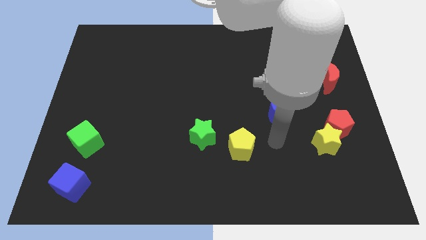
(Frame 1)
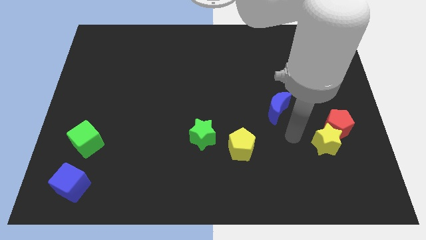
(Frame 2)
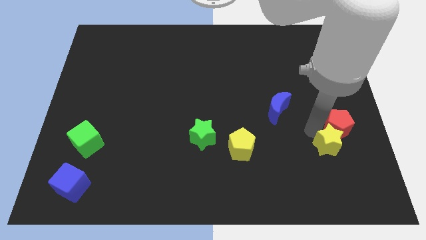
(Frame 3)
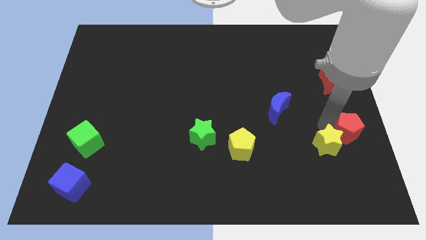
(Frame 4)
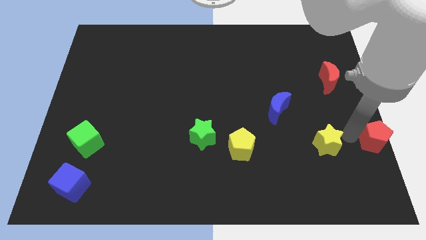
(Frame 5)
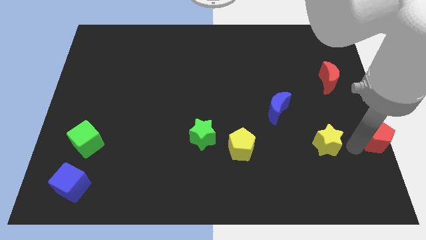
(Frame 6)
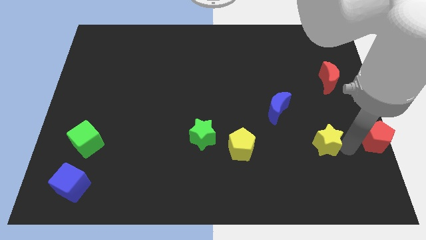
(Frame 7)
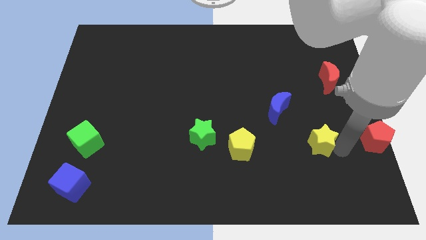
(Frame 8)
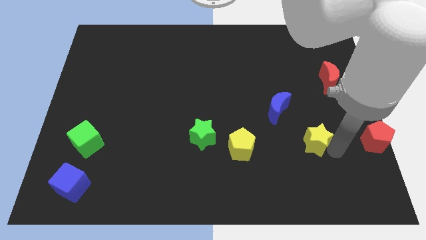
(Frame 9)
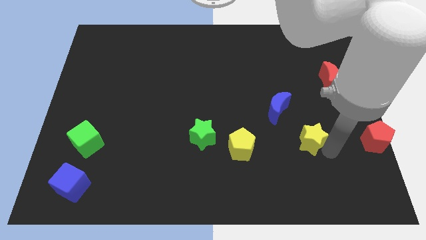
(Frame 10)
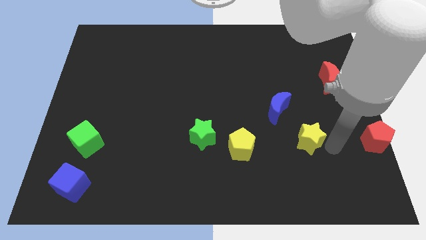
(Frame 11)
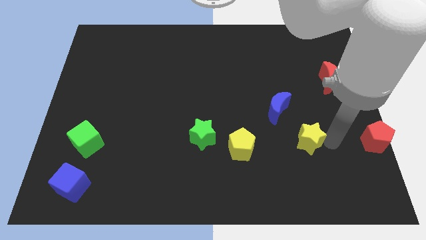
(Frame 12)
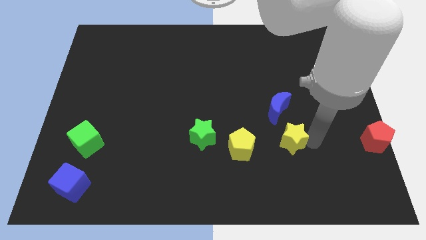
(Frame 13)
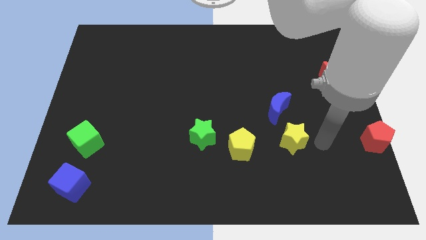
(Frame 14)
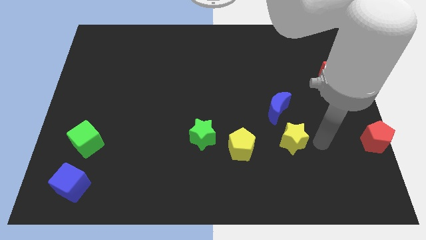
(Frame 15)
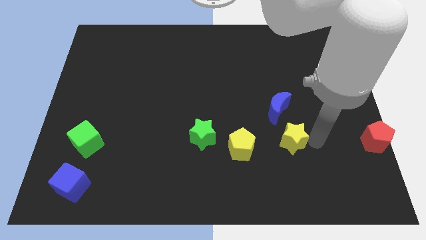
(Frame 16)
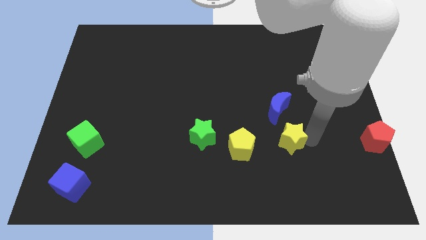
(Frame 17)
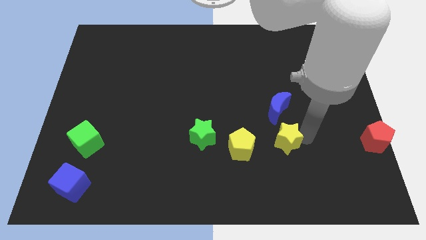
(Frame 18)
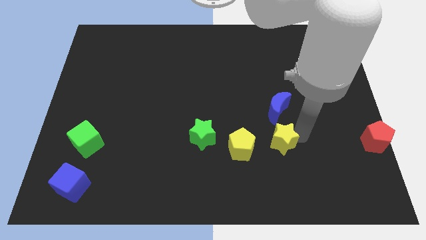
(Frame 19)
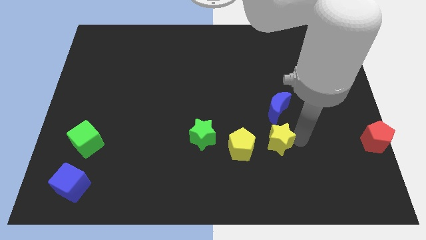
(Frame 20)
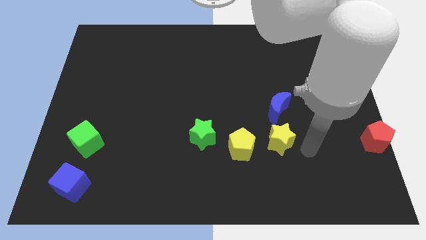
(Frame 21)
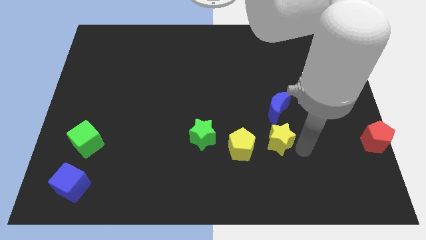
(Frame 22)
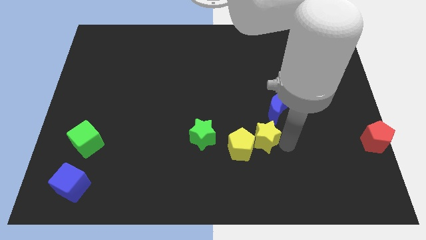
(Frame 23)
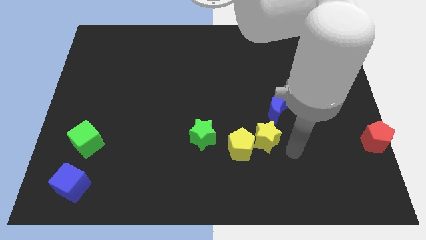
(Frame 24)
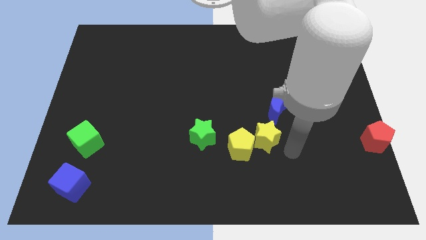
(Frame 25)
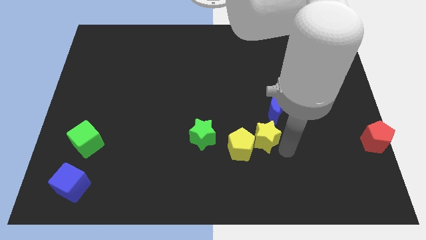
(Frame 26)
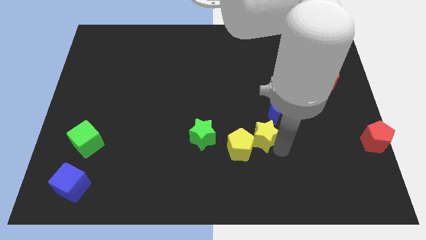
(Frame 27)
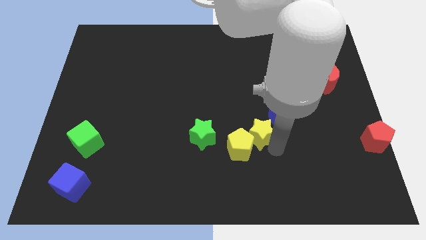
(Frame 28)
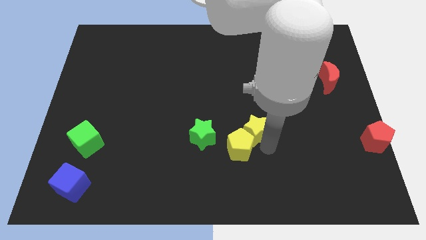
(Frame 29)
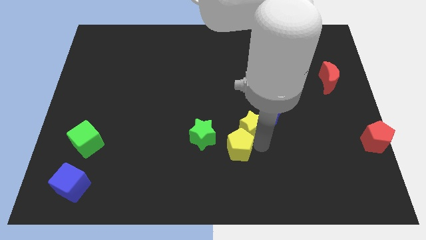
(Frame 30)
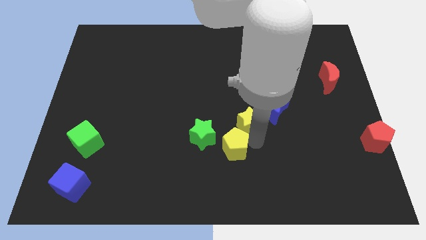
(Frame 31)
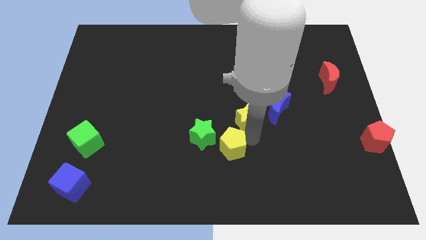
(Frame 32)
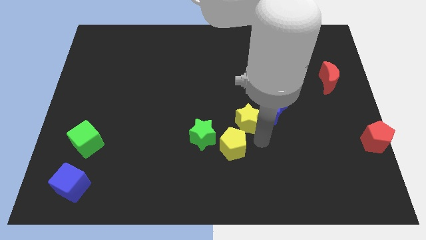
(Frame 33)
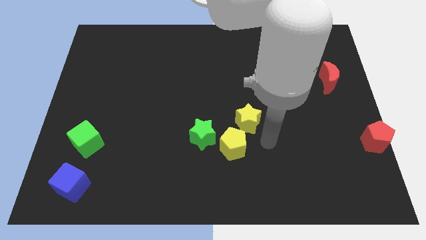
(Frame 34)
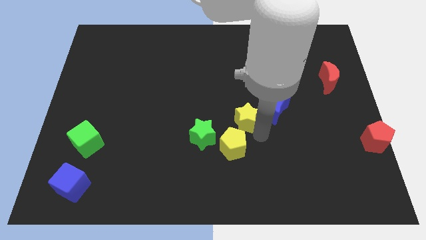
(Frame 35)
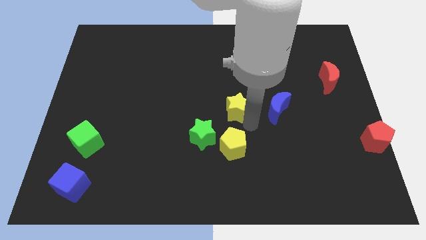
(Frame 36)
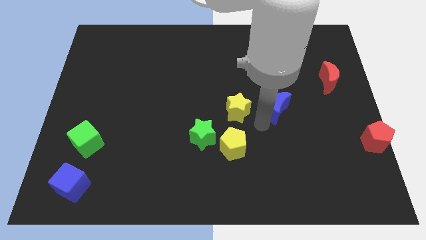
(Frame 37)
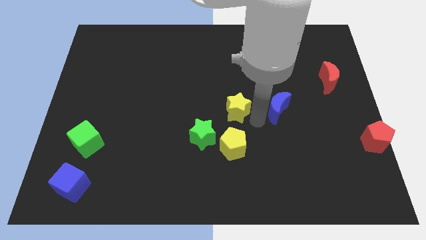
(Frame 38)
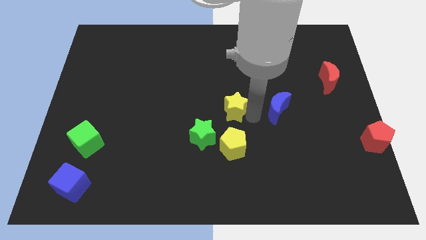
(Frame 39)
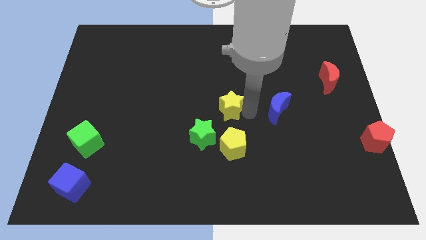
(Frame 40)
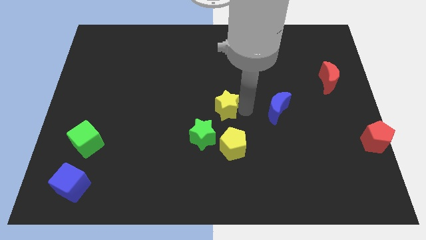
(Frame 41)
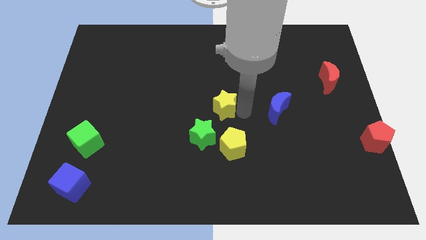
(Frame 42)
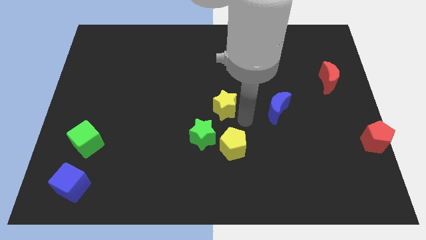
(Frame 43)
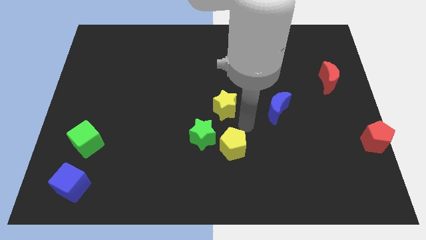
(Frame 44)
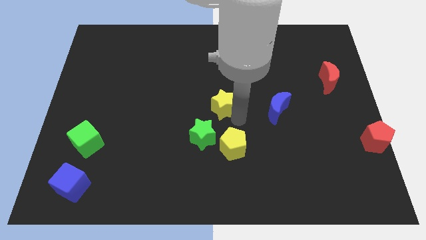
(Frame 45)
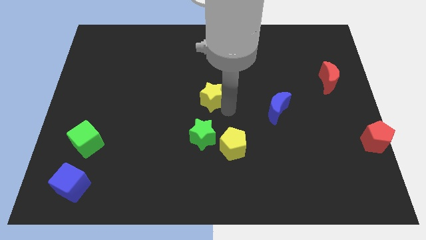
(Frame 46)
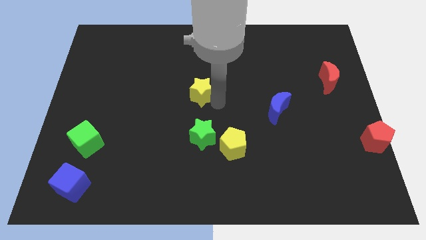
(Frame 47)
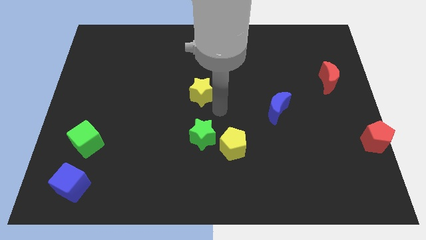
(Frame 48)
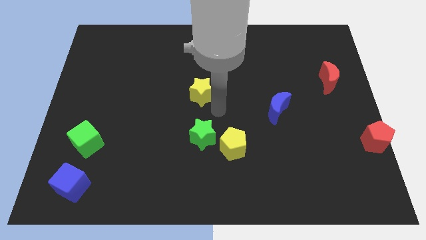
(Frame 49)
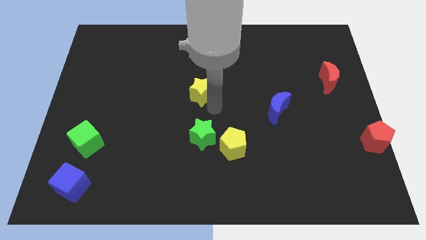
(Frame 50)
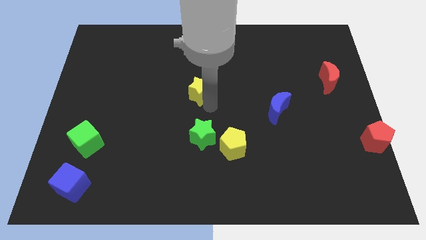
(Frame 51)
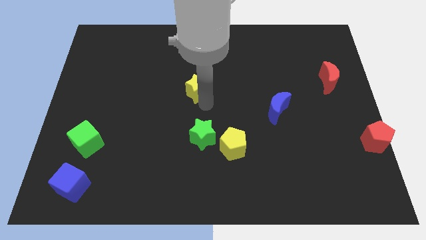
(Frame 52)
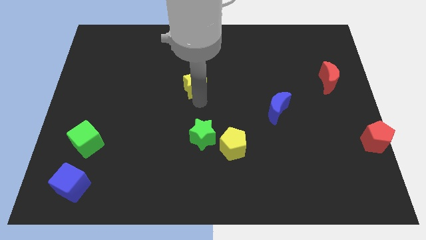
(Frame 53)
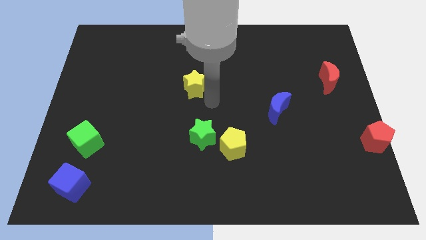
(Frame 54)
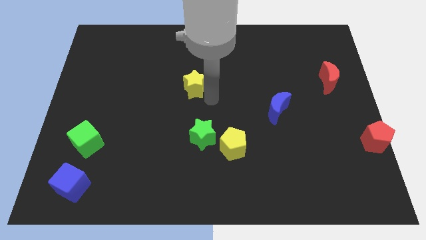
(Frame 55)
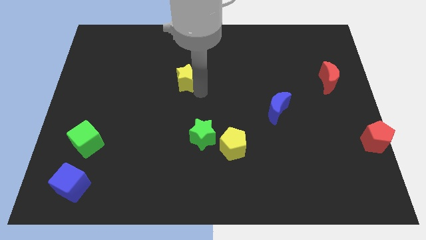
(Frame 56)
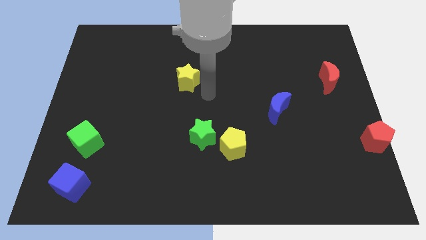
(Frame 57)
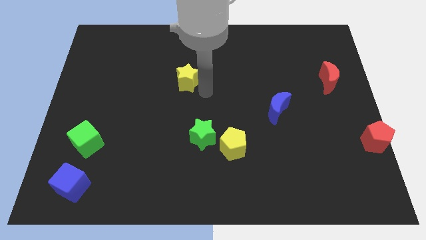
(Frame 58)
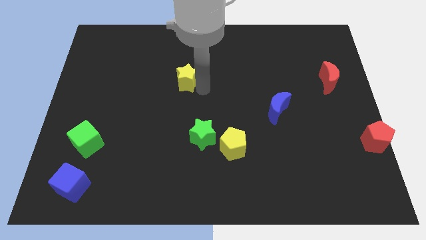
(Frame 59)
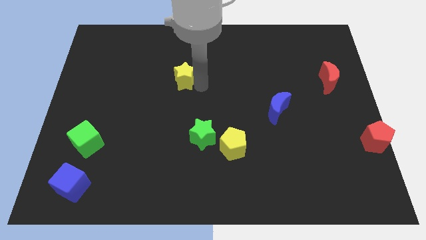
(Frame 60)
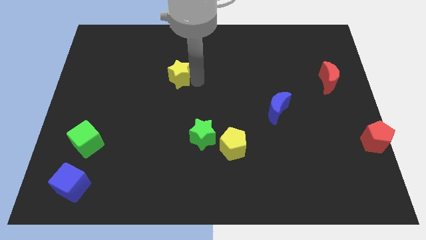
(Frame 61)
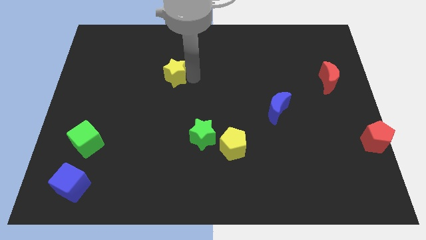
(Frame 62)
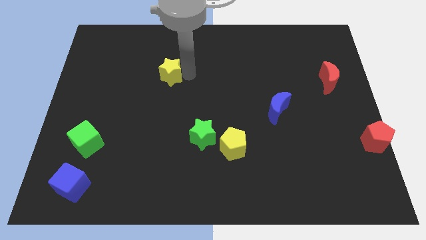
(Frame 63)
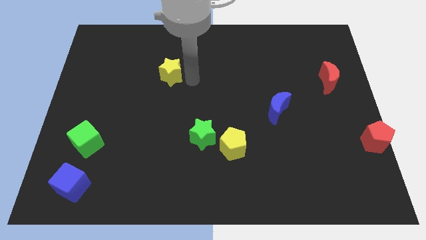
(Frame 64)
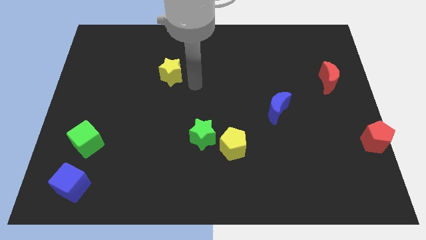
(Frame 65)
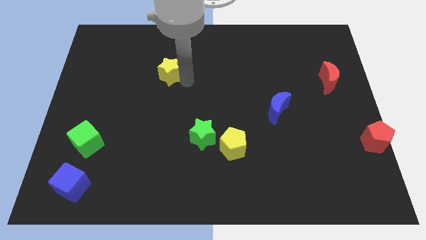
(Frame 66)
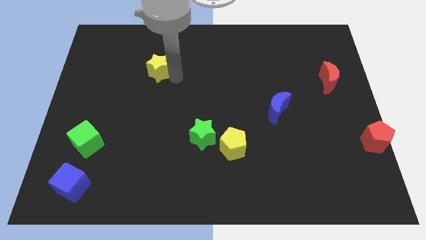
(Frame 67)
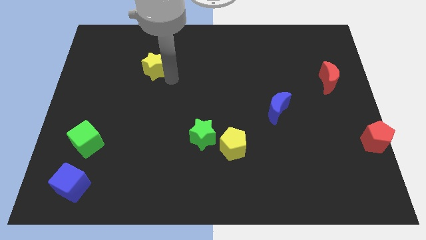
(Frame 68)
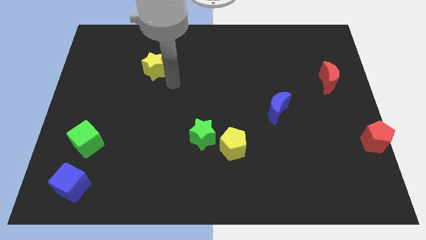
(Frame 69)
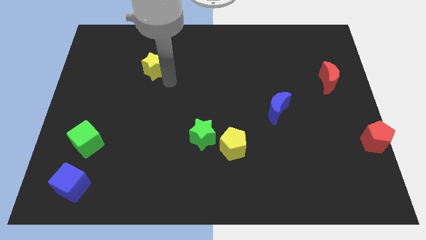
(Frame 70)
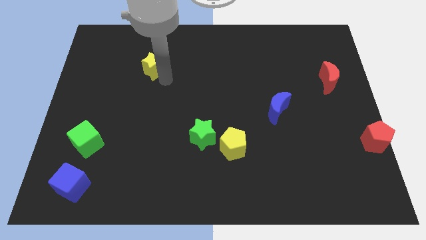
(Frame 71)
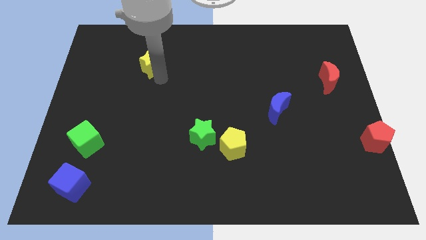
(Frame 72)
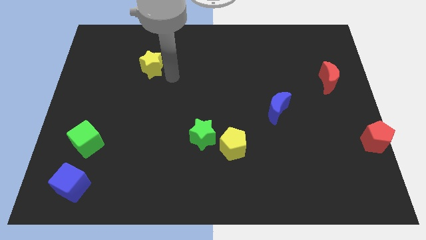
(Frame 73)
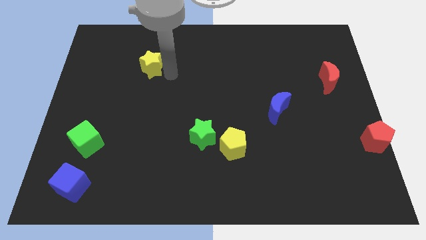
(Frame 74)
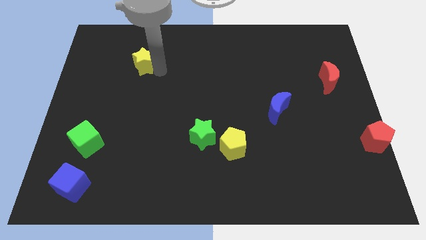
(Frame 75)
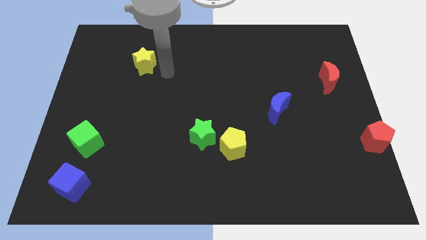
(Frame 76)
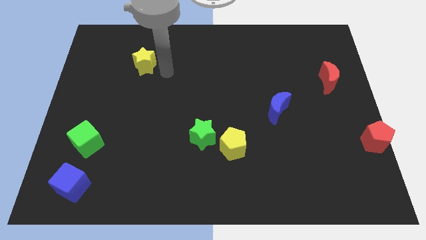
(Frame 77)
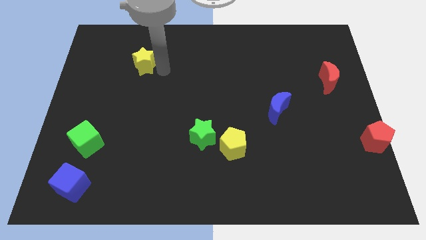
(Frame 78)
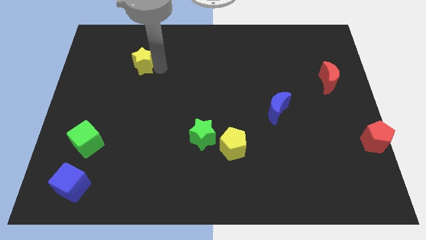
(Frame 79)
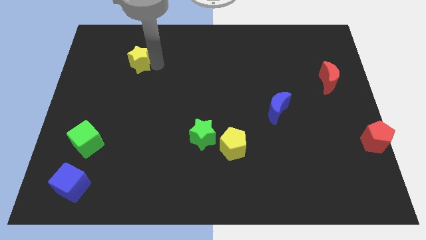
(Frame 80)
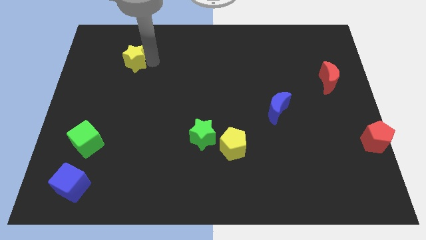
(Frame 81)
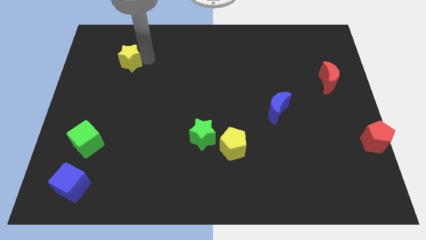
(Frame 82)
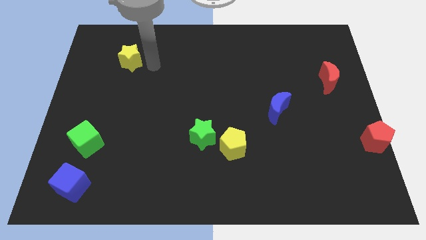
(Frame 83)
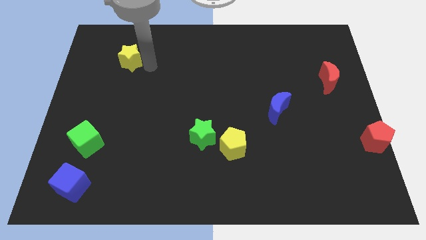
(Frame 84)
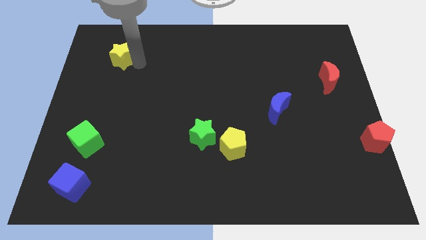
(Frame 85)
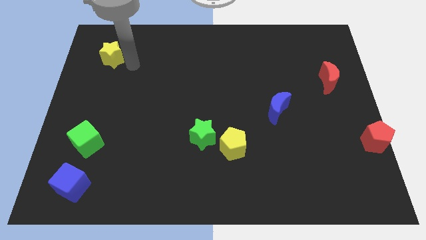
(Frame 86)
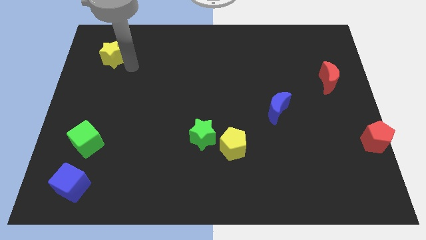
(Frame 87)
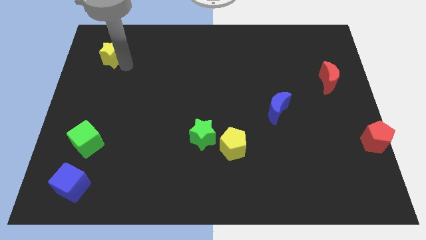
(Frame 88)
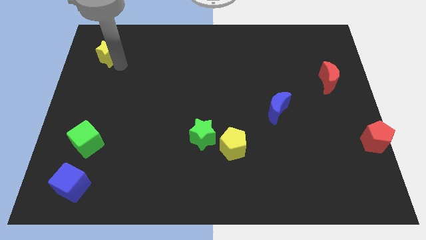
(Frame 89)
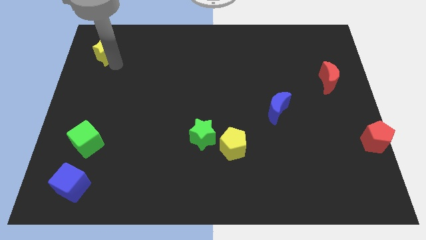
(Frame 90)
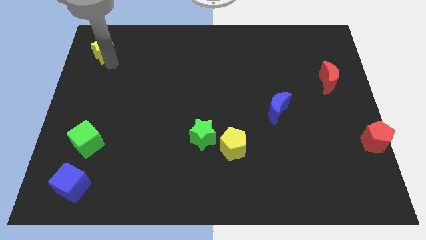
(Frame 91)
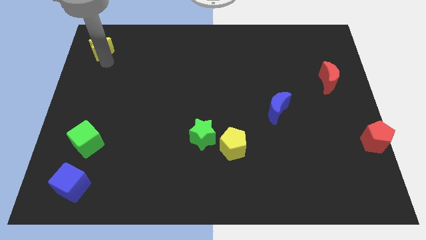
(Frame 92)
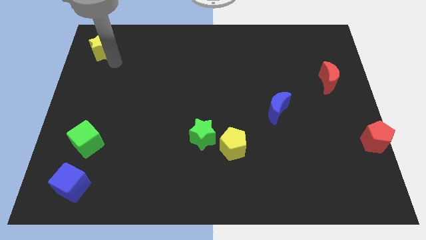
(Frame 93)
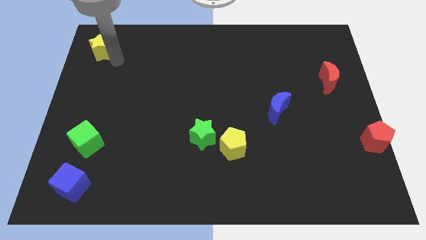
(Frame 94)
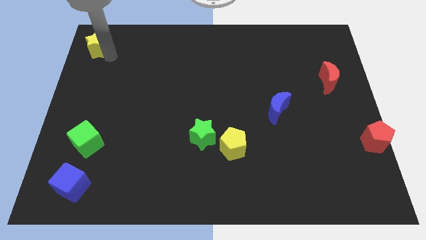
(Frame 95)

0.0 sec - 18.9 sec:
put the yellow star to the top left
